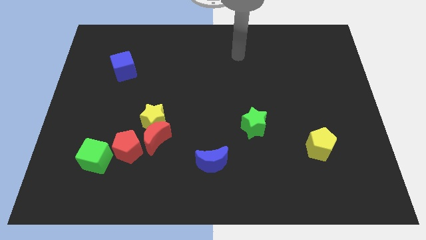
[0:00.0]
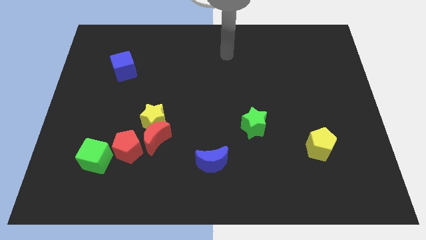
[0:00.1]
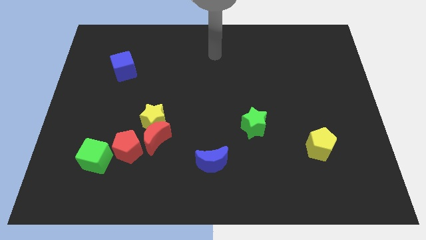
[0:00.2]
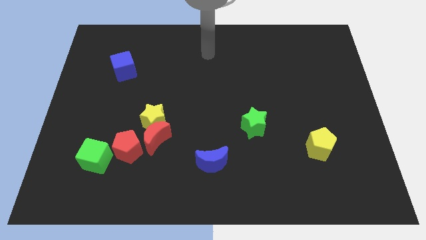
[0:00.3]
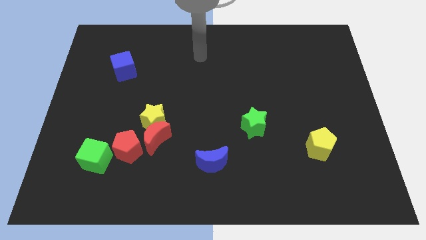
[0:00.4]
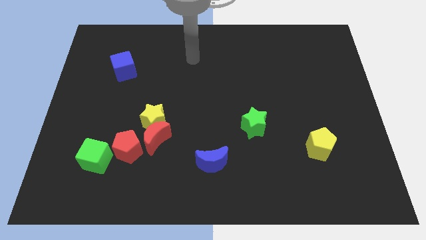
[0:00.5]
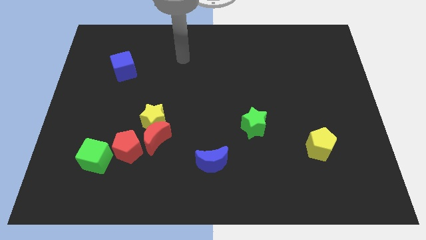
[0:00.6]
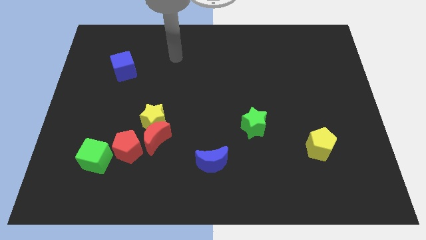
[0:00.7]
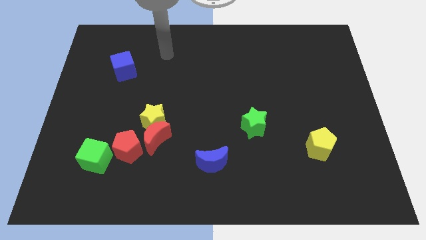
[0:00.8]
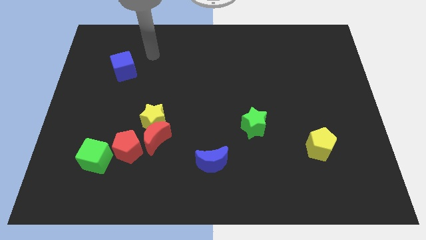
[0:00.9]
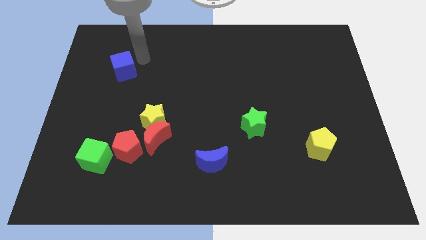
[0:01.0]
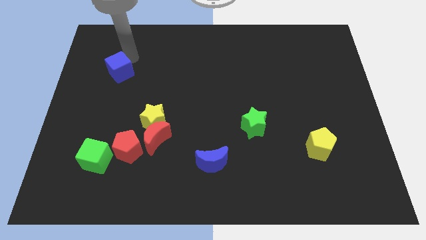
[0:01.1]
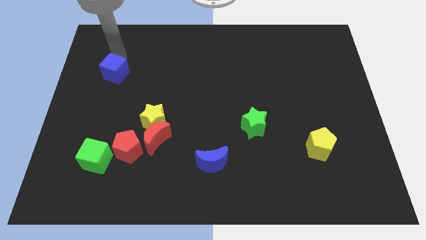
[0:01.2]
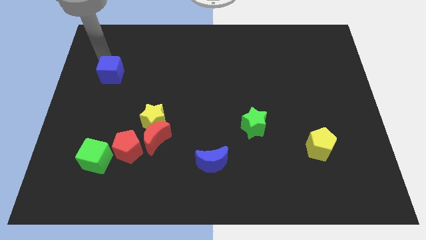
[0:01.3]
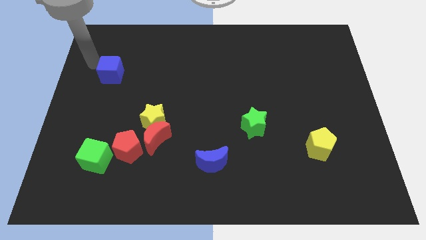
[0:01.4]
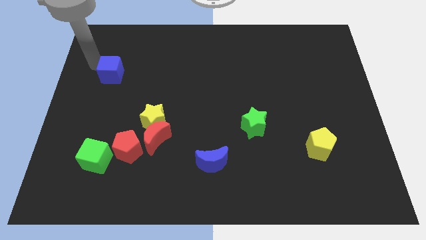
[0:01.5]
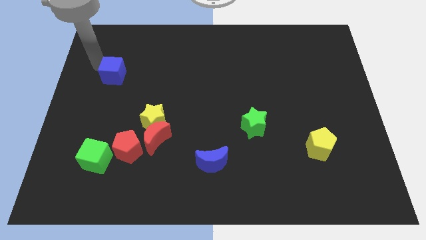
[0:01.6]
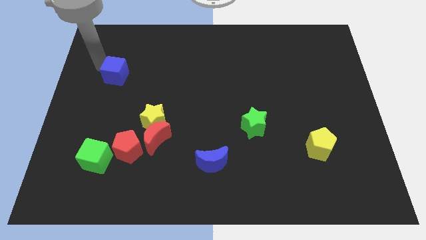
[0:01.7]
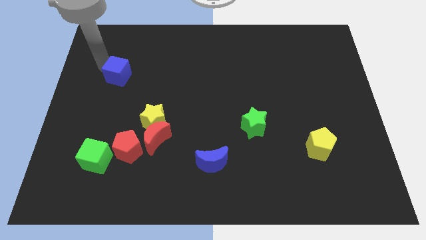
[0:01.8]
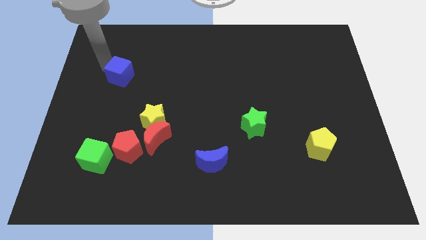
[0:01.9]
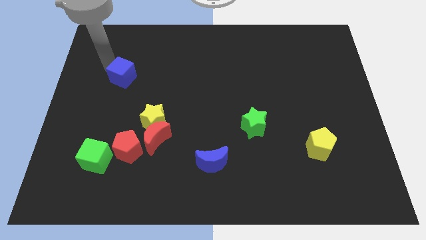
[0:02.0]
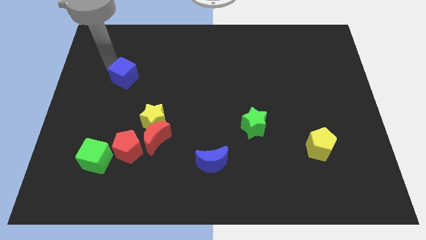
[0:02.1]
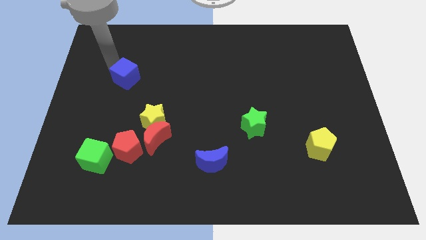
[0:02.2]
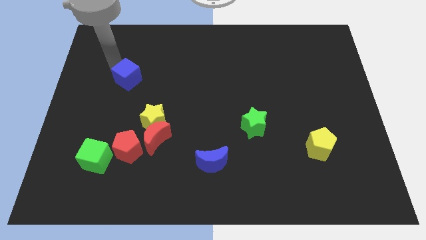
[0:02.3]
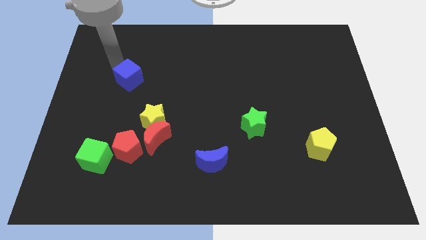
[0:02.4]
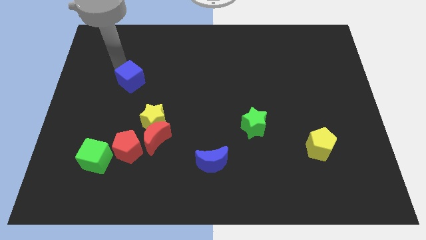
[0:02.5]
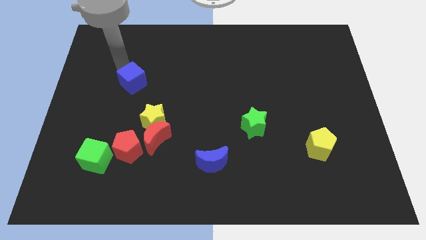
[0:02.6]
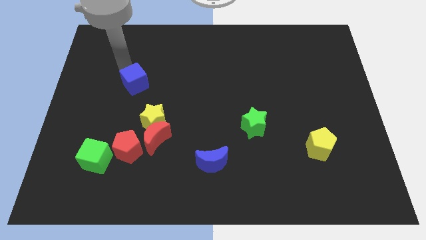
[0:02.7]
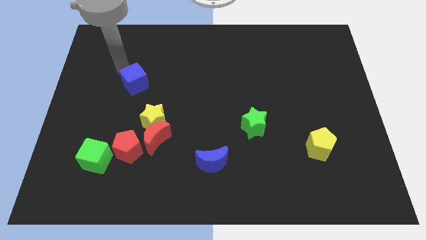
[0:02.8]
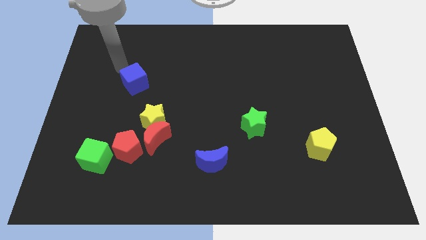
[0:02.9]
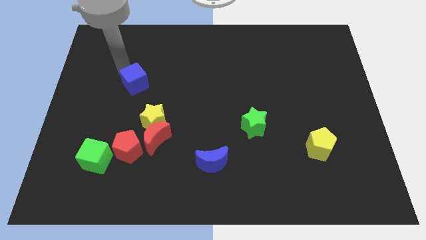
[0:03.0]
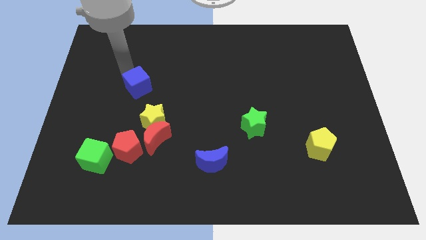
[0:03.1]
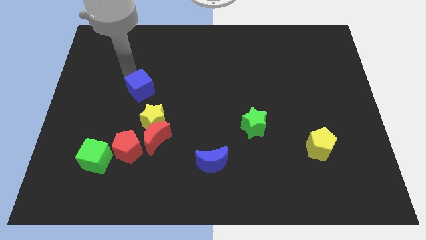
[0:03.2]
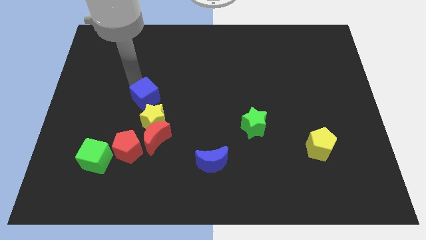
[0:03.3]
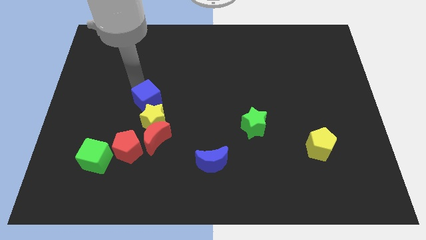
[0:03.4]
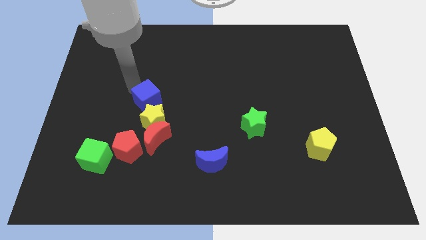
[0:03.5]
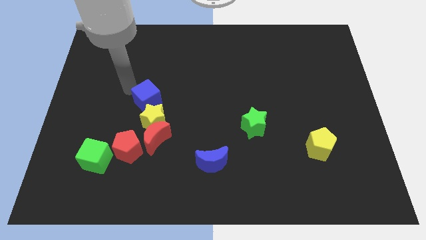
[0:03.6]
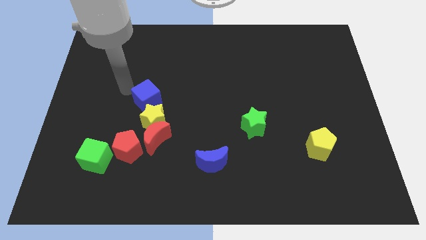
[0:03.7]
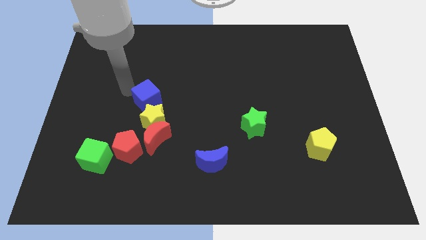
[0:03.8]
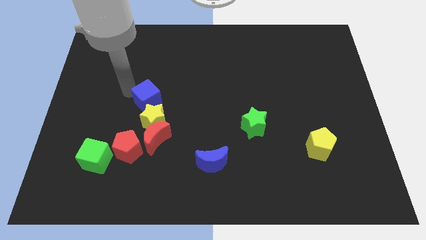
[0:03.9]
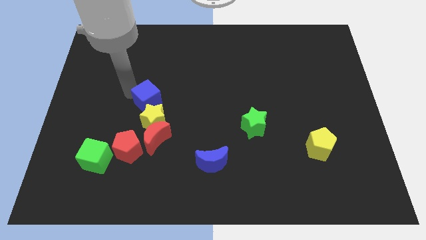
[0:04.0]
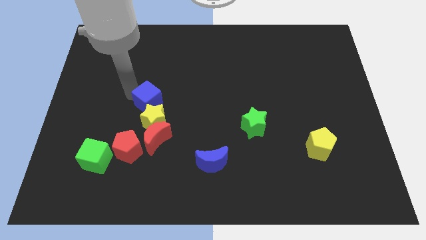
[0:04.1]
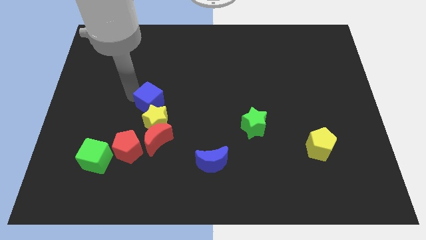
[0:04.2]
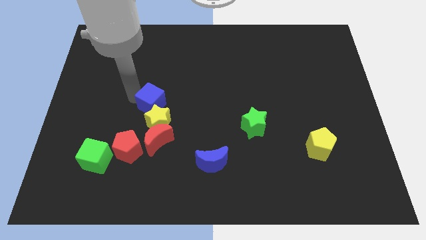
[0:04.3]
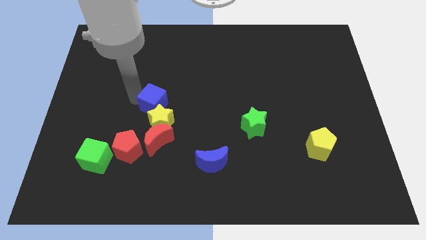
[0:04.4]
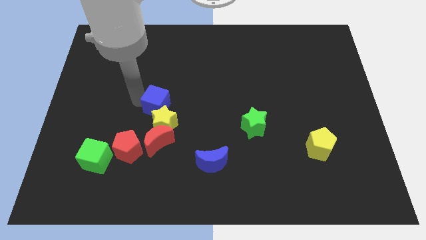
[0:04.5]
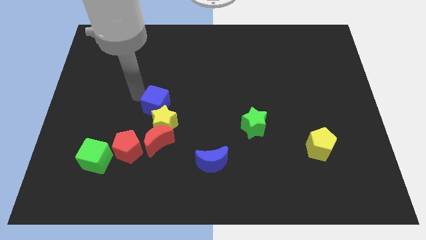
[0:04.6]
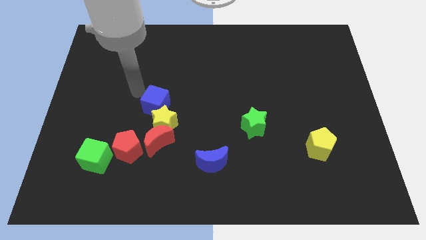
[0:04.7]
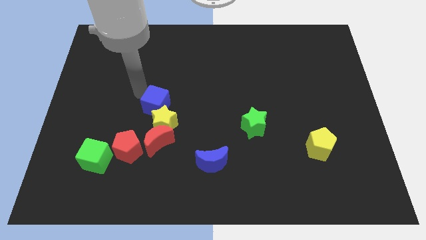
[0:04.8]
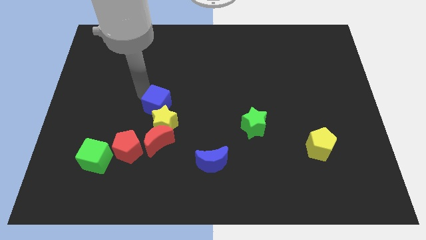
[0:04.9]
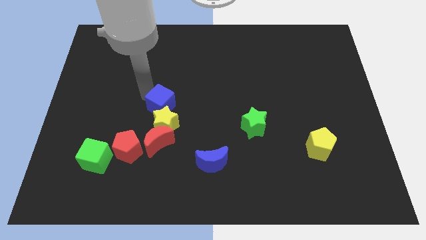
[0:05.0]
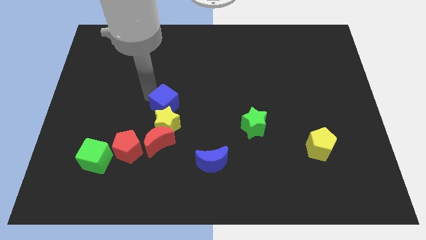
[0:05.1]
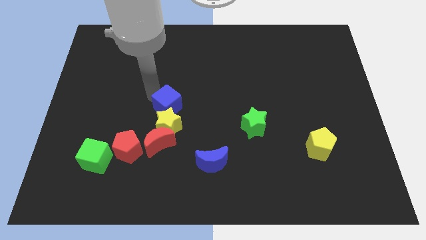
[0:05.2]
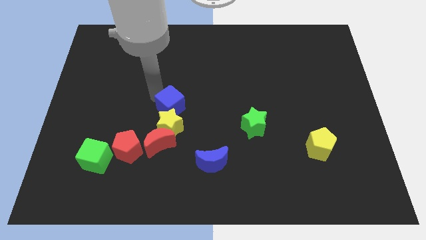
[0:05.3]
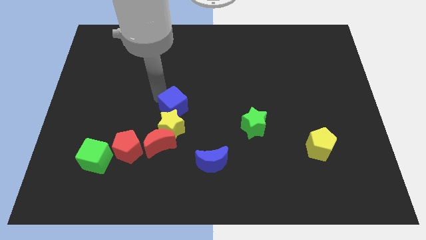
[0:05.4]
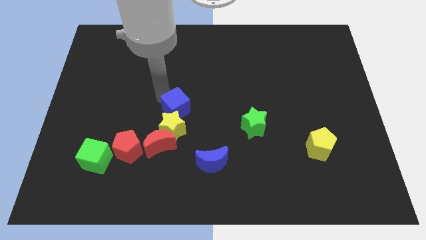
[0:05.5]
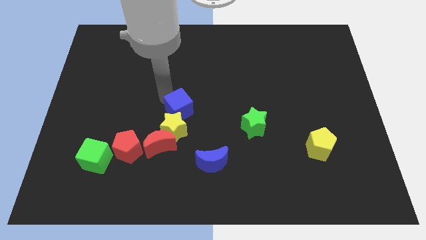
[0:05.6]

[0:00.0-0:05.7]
put the blue cube to the top right side of the red moon
